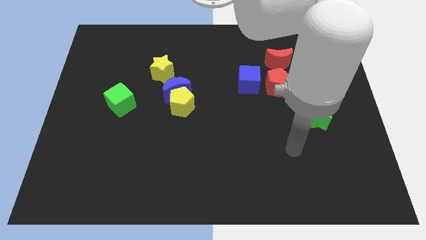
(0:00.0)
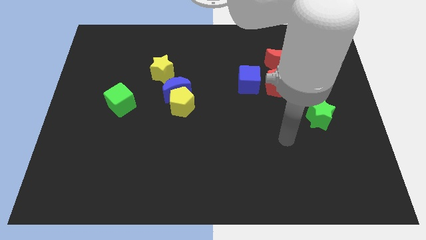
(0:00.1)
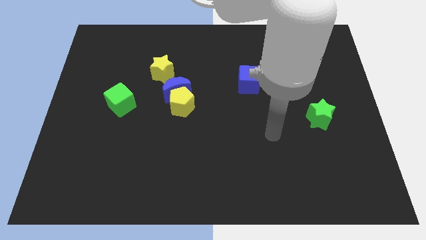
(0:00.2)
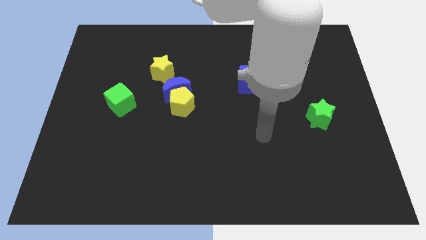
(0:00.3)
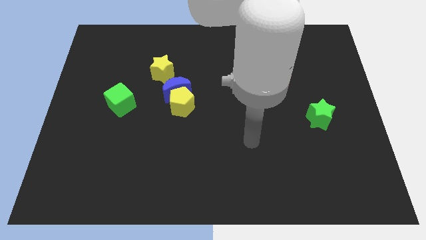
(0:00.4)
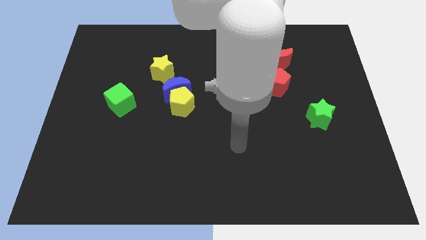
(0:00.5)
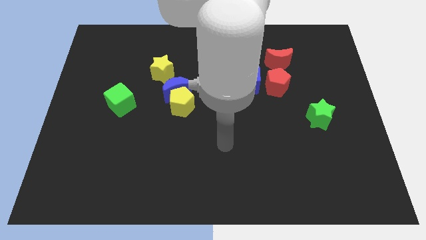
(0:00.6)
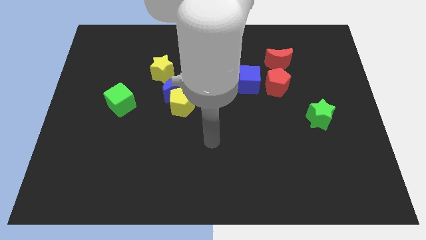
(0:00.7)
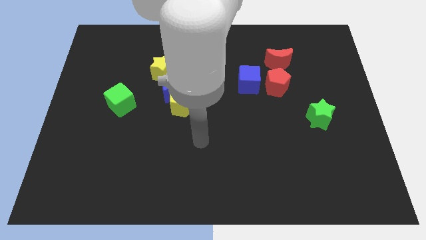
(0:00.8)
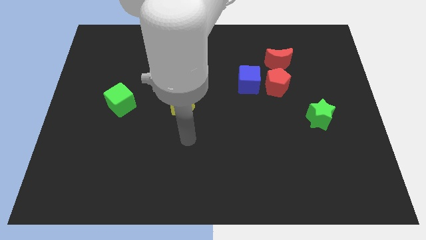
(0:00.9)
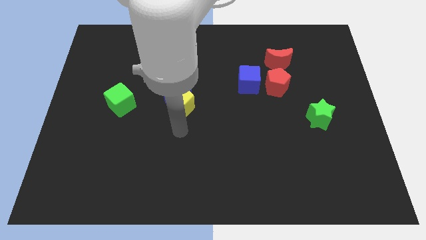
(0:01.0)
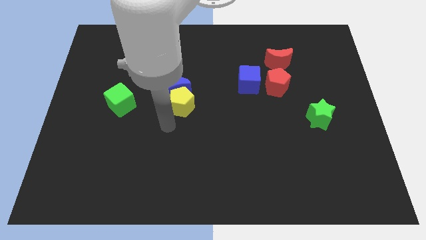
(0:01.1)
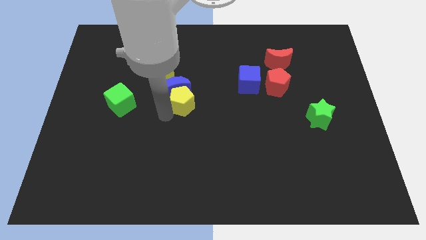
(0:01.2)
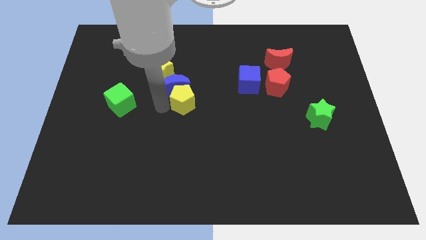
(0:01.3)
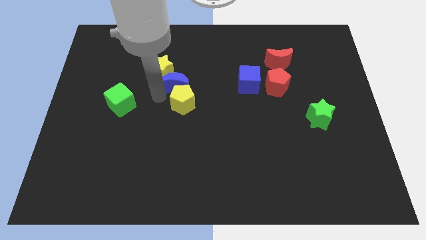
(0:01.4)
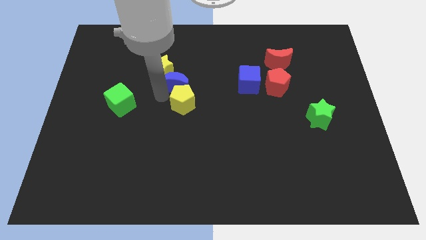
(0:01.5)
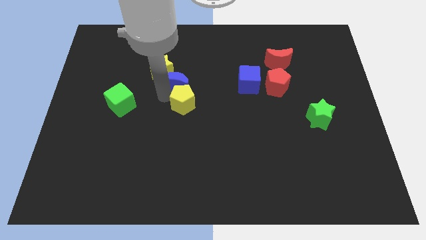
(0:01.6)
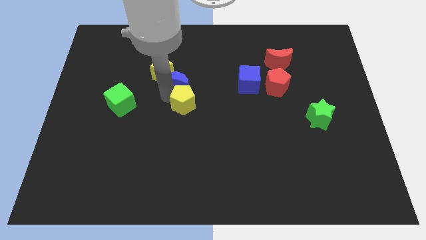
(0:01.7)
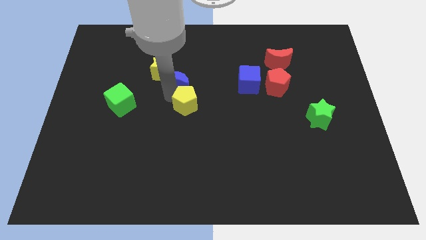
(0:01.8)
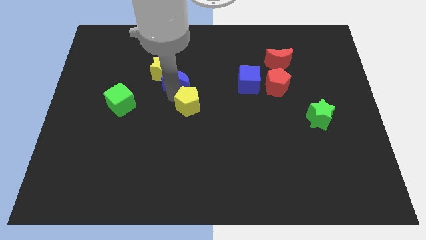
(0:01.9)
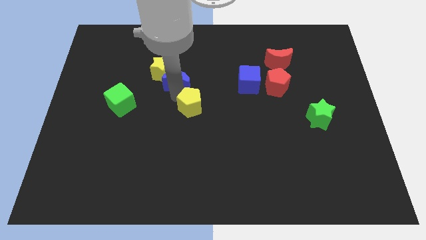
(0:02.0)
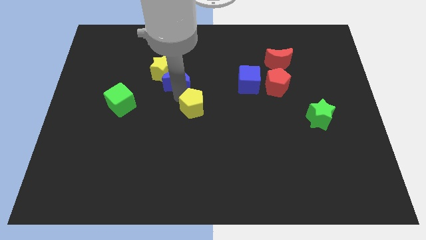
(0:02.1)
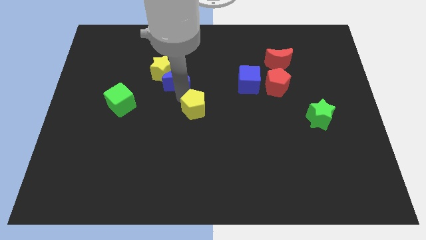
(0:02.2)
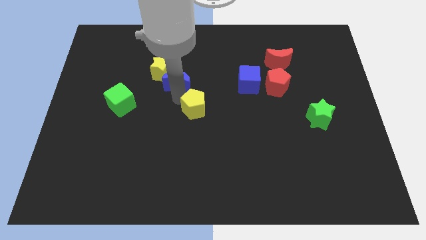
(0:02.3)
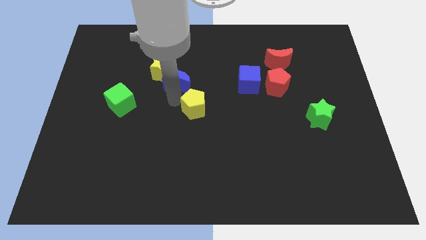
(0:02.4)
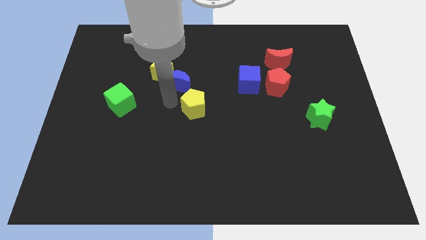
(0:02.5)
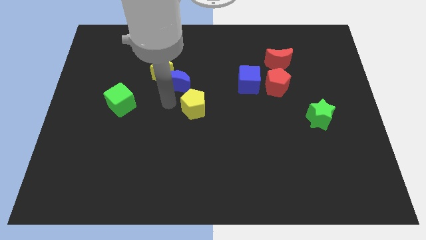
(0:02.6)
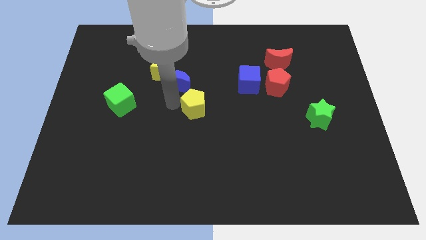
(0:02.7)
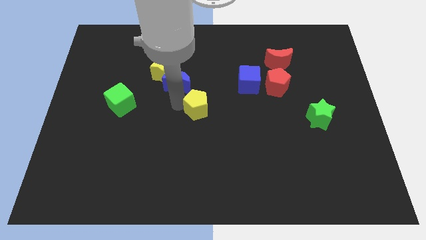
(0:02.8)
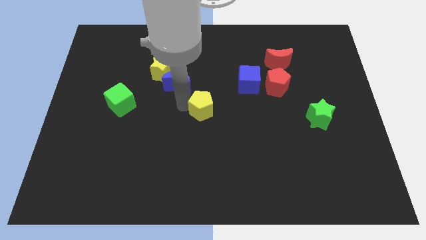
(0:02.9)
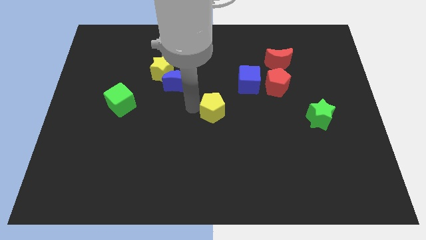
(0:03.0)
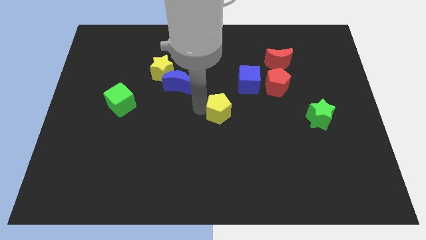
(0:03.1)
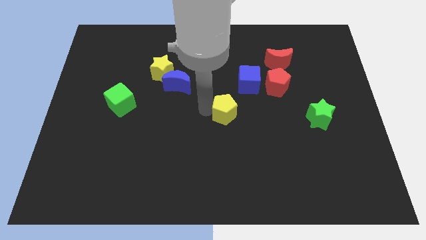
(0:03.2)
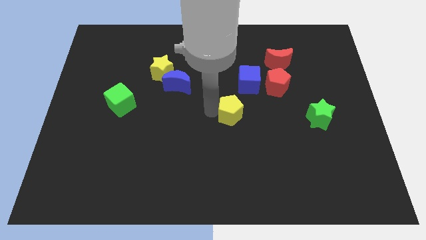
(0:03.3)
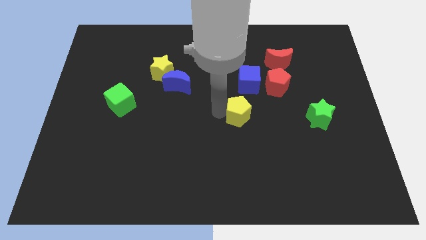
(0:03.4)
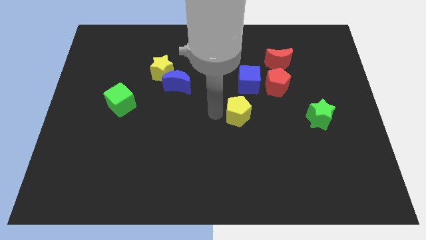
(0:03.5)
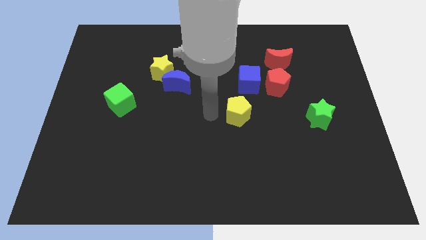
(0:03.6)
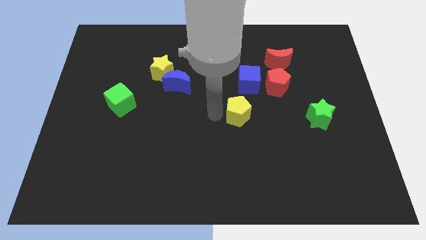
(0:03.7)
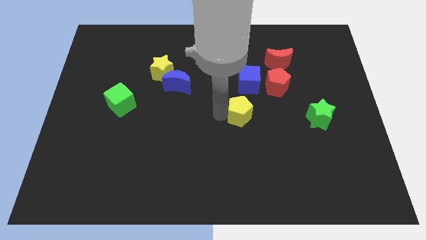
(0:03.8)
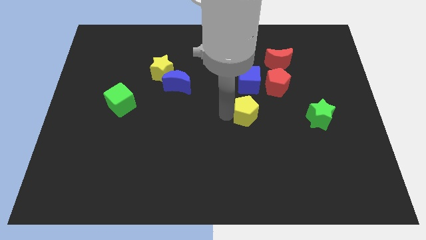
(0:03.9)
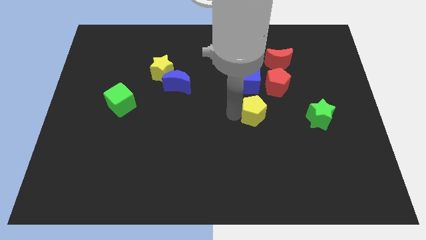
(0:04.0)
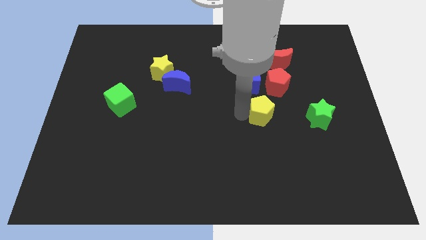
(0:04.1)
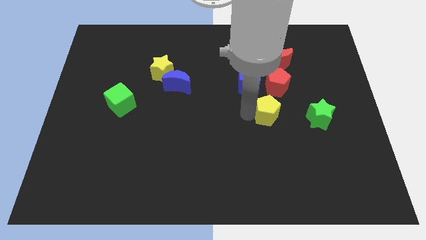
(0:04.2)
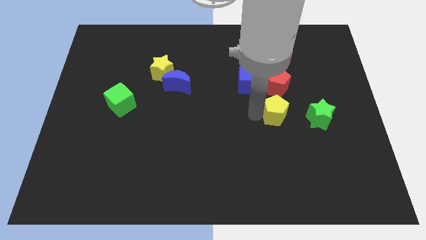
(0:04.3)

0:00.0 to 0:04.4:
move the yellow pentagon to the right

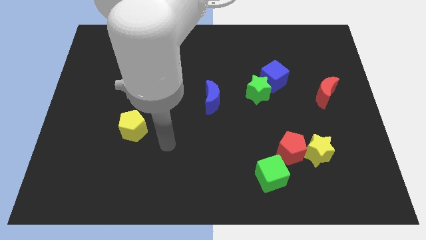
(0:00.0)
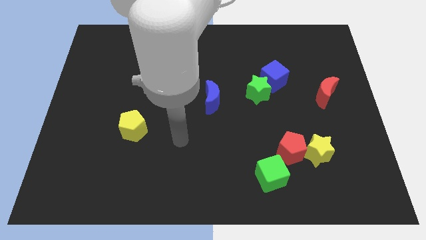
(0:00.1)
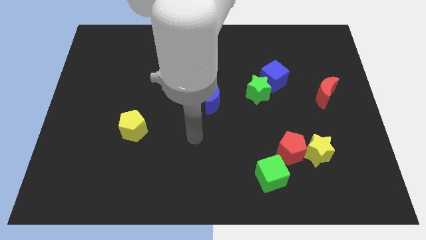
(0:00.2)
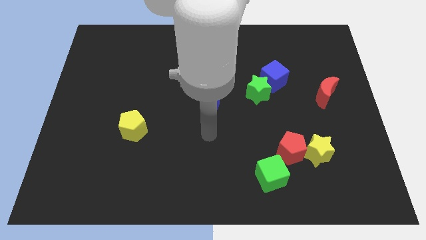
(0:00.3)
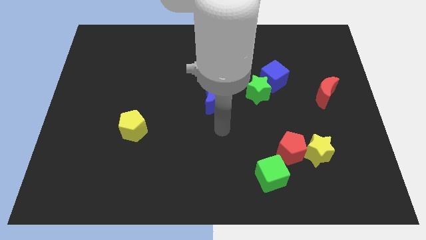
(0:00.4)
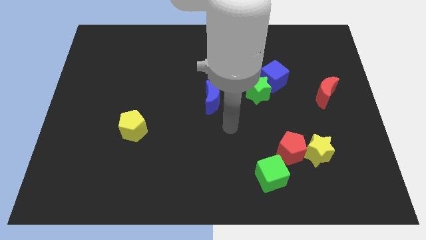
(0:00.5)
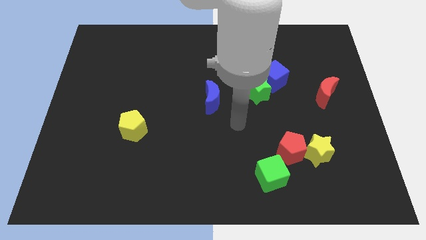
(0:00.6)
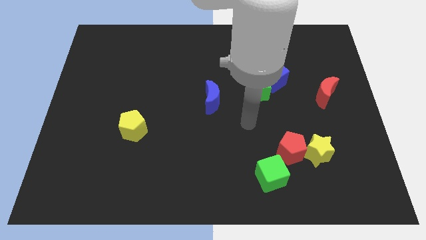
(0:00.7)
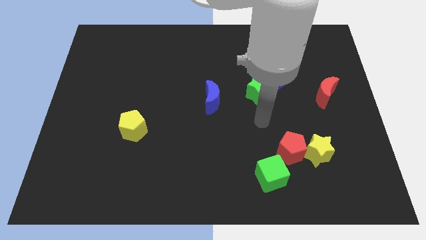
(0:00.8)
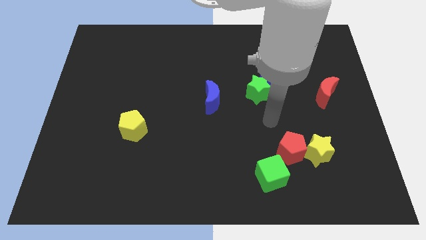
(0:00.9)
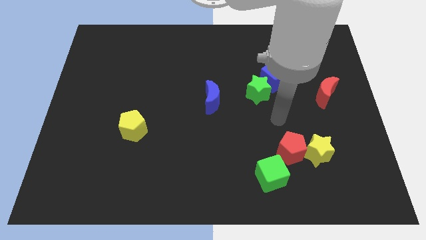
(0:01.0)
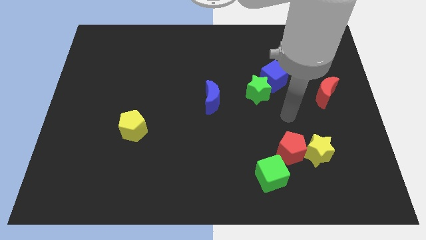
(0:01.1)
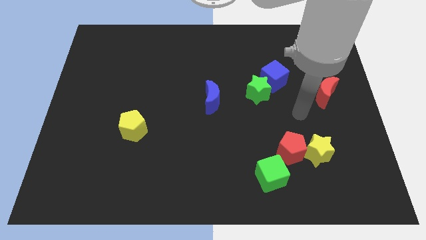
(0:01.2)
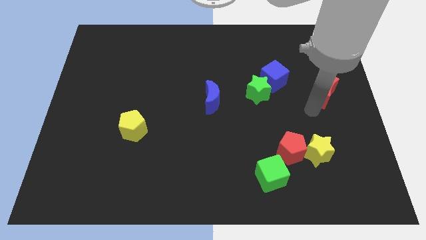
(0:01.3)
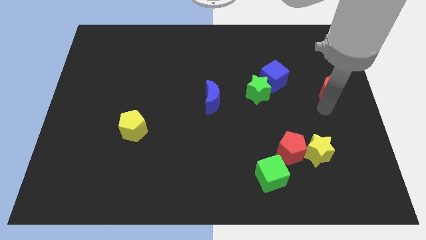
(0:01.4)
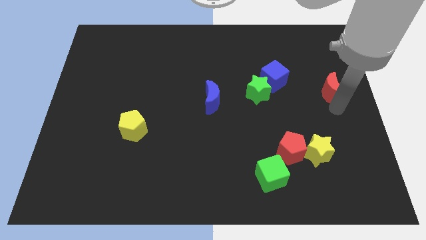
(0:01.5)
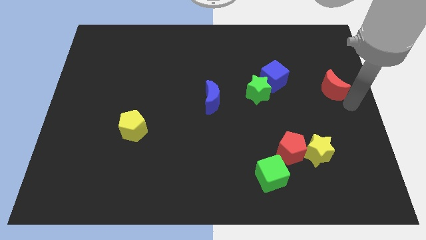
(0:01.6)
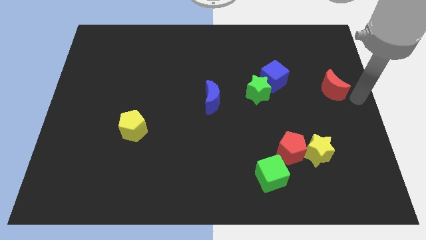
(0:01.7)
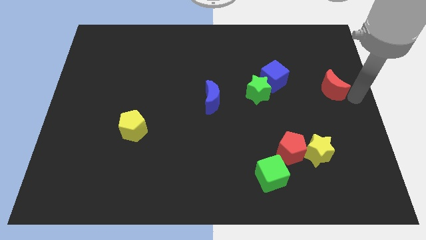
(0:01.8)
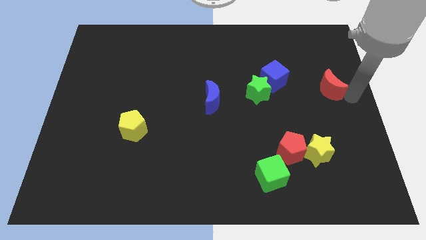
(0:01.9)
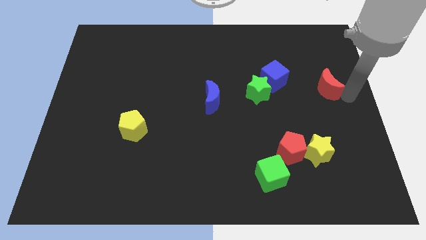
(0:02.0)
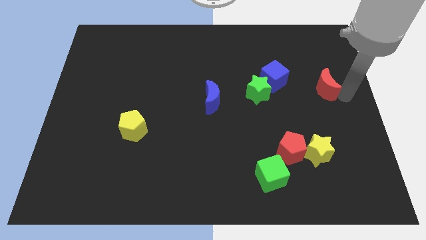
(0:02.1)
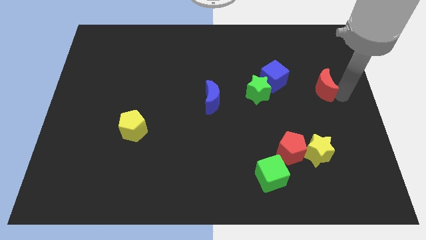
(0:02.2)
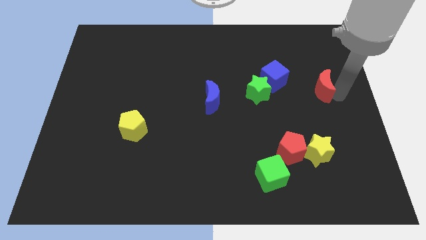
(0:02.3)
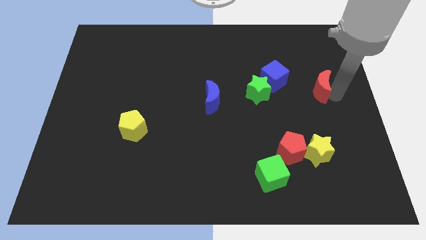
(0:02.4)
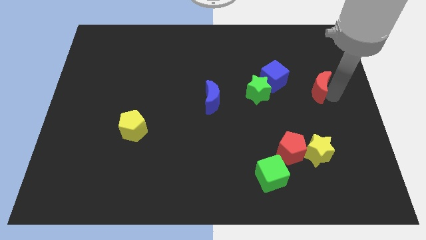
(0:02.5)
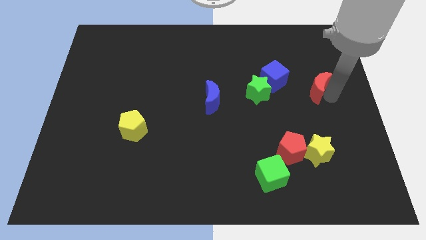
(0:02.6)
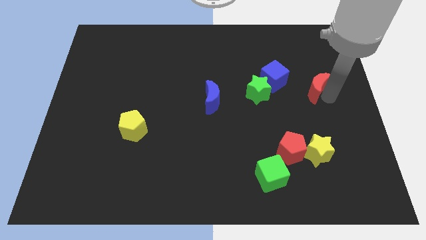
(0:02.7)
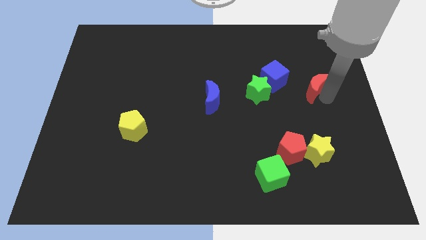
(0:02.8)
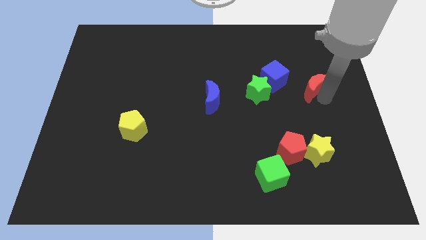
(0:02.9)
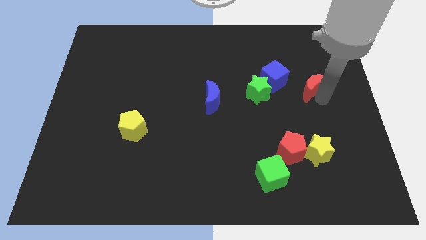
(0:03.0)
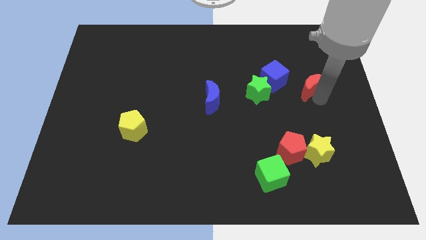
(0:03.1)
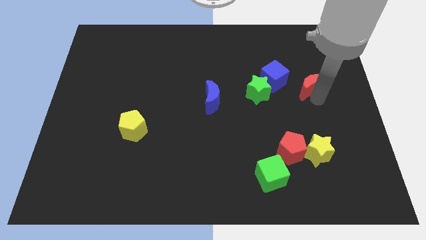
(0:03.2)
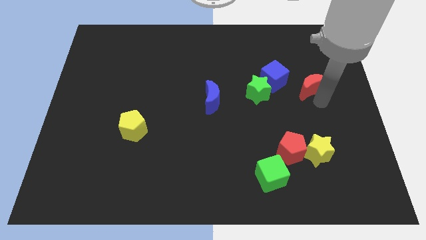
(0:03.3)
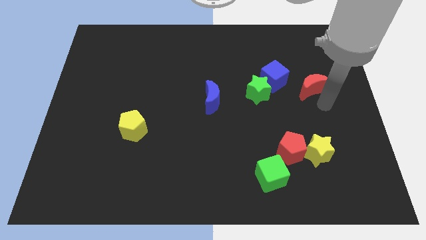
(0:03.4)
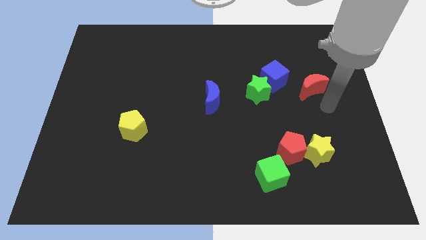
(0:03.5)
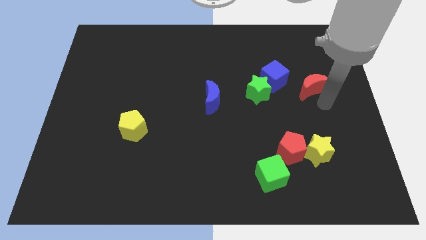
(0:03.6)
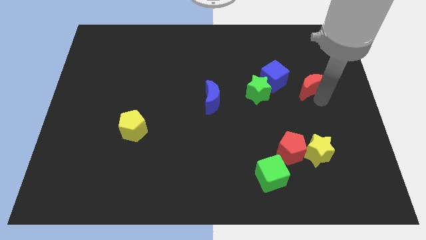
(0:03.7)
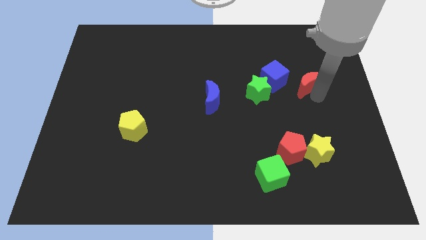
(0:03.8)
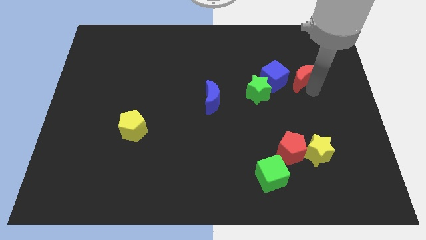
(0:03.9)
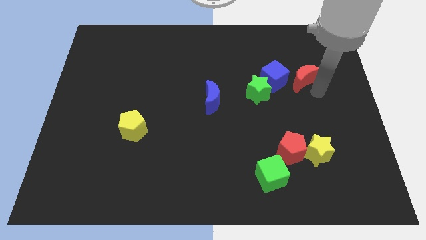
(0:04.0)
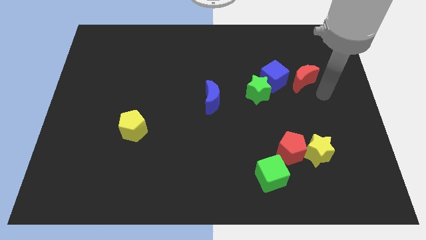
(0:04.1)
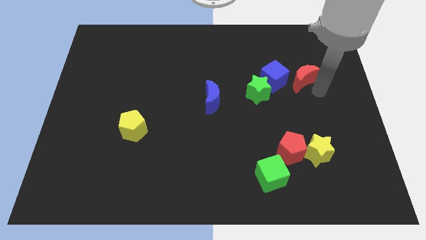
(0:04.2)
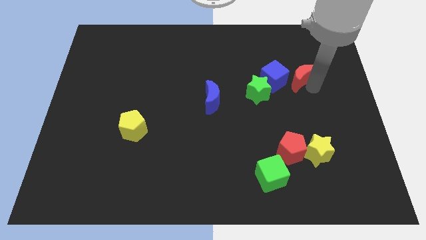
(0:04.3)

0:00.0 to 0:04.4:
push the red moon a little upwards and left
